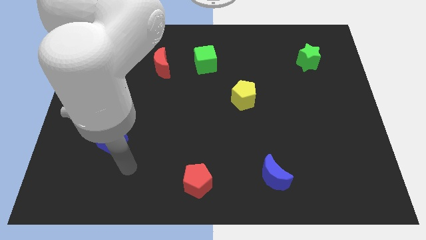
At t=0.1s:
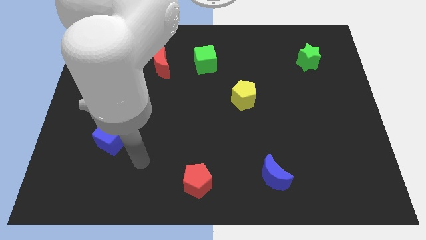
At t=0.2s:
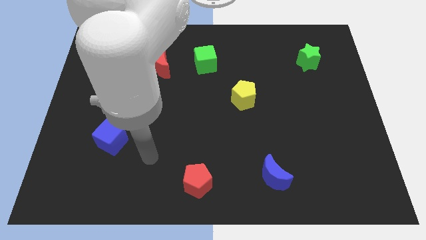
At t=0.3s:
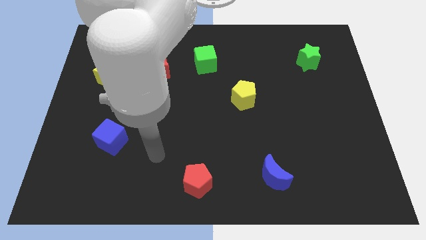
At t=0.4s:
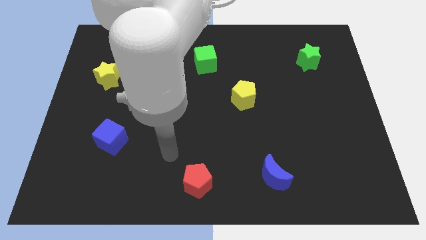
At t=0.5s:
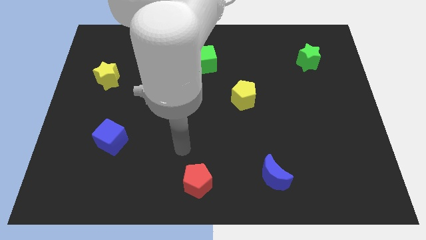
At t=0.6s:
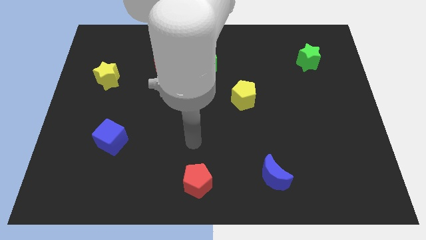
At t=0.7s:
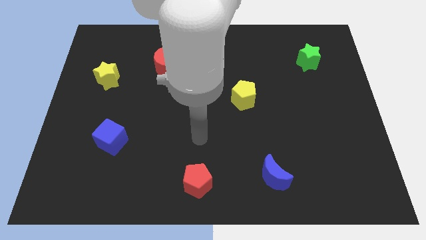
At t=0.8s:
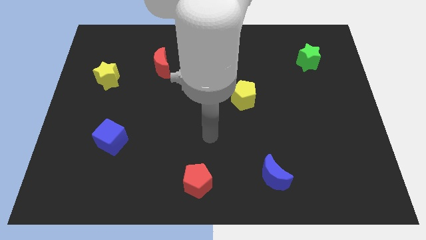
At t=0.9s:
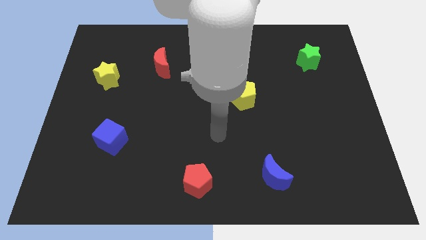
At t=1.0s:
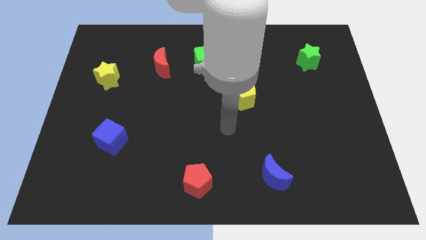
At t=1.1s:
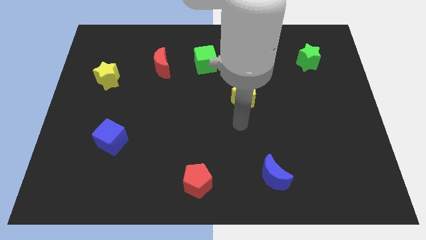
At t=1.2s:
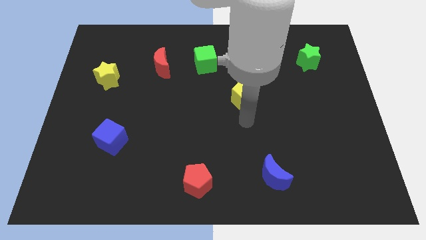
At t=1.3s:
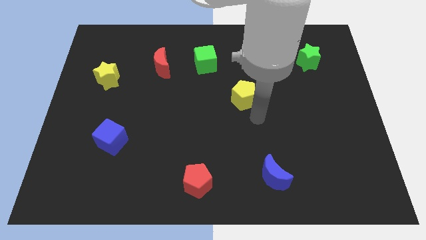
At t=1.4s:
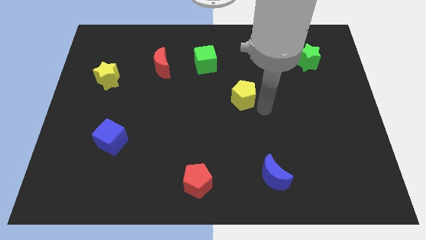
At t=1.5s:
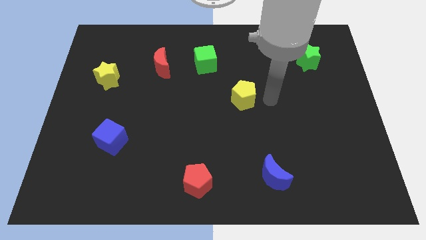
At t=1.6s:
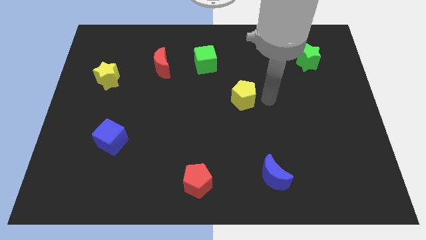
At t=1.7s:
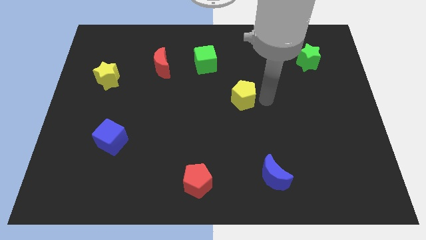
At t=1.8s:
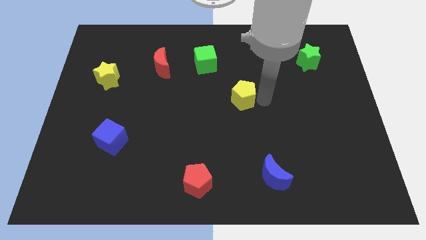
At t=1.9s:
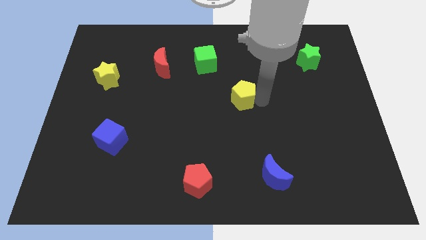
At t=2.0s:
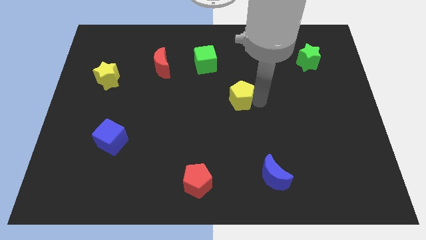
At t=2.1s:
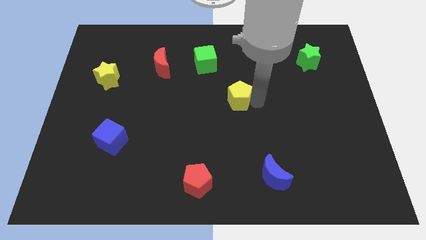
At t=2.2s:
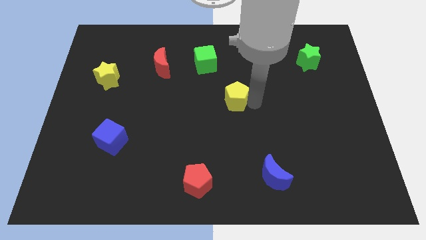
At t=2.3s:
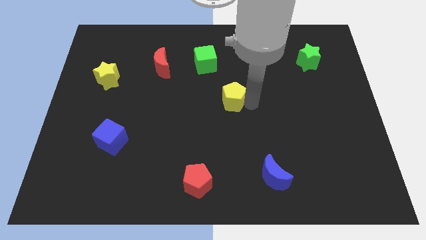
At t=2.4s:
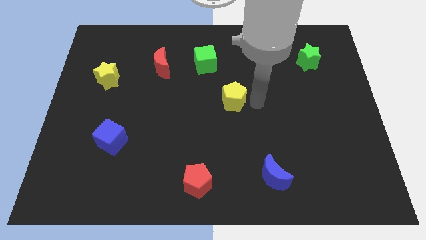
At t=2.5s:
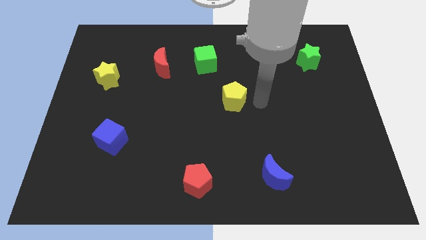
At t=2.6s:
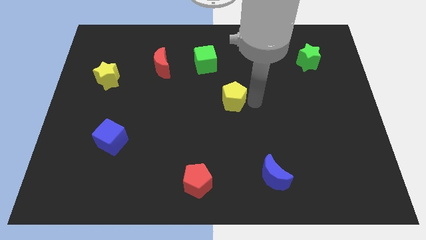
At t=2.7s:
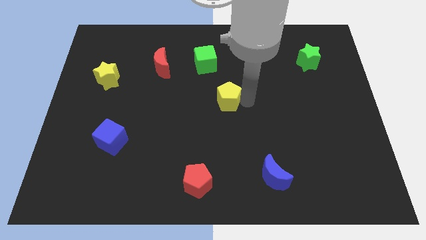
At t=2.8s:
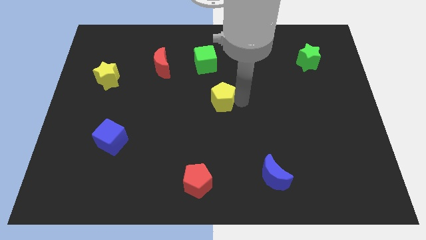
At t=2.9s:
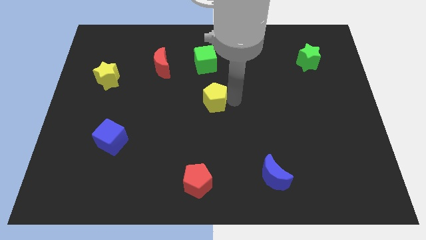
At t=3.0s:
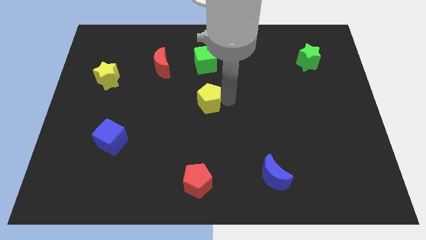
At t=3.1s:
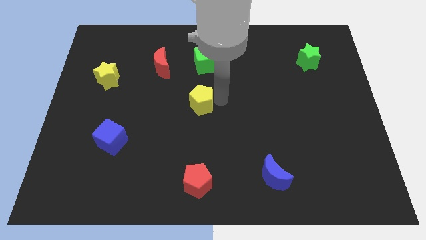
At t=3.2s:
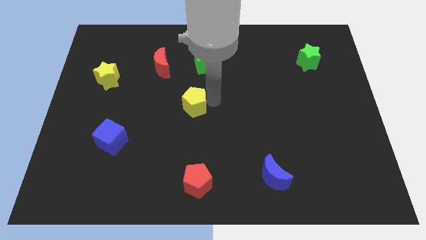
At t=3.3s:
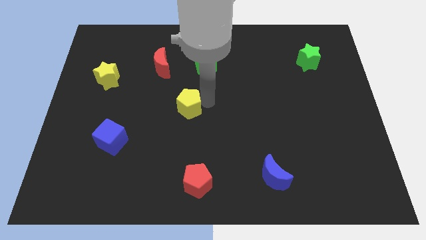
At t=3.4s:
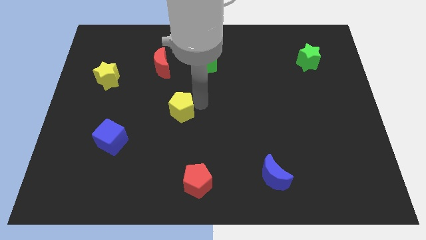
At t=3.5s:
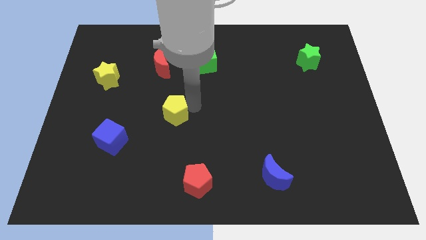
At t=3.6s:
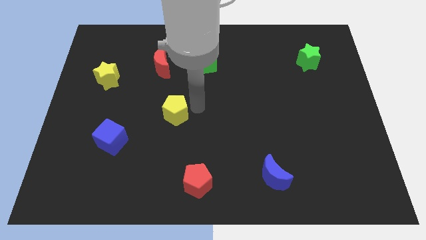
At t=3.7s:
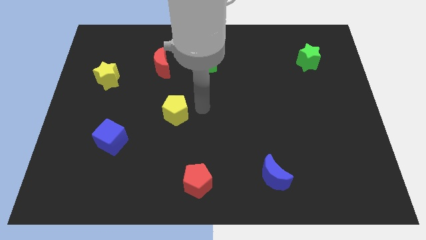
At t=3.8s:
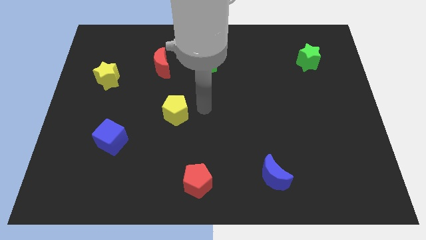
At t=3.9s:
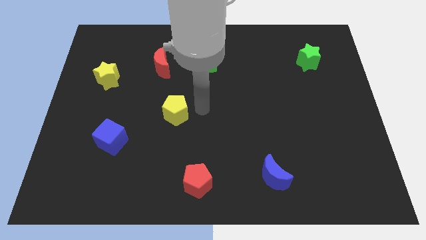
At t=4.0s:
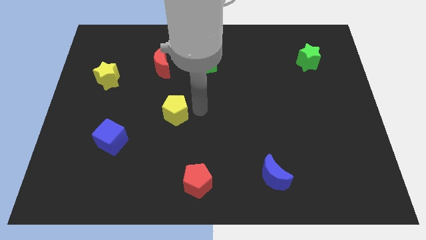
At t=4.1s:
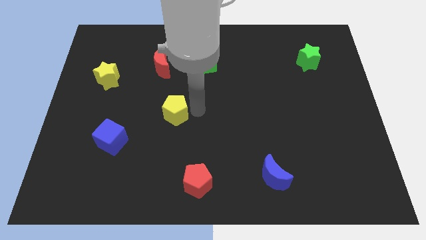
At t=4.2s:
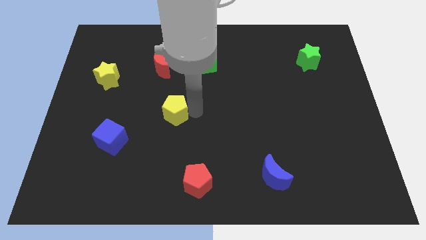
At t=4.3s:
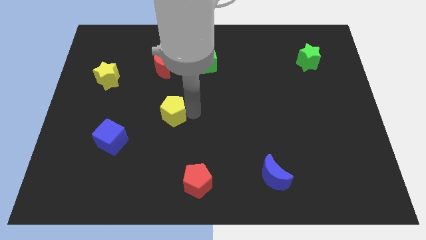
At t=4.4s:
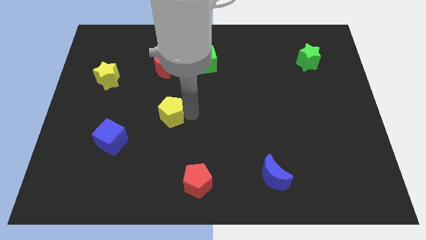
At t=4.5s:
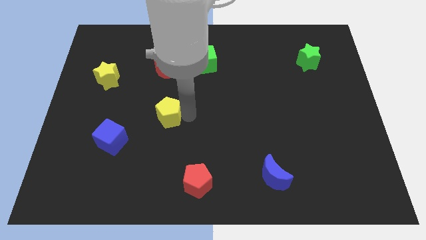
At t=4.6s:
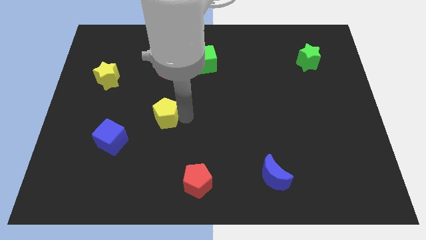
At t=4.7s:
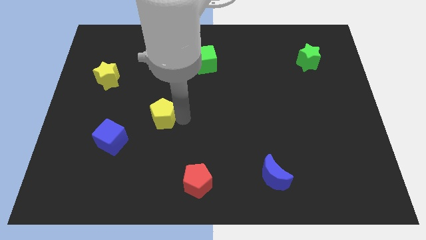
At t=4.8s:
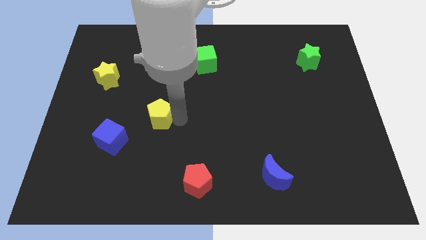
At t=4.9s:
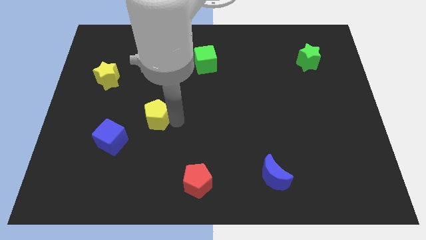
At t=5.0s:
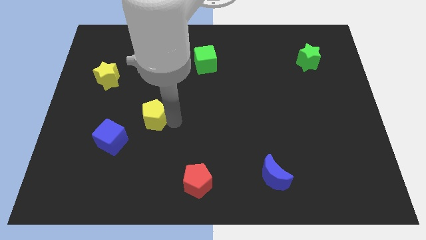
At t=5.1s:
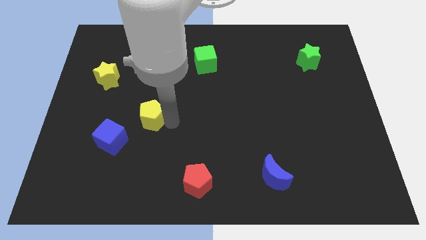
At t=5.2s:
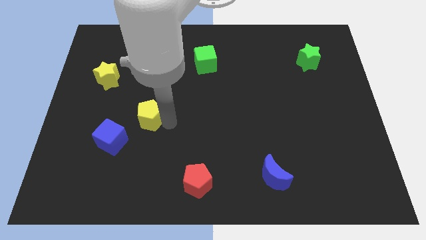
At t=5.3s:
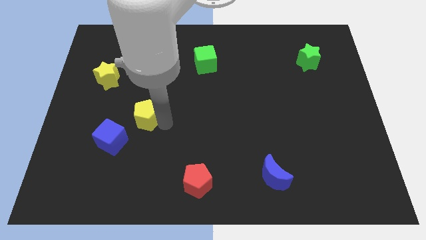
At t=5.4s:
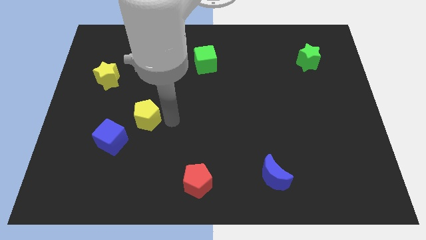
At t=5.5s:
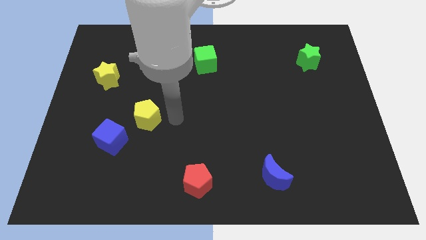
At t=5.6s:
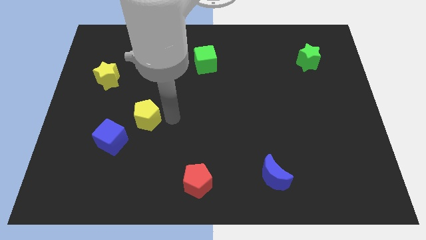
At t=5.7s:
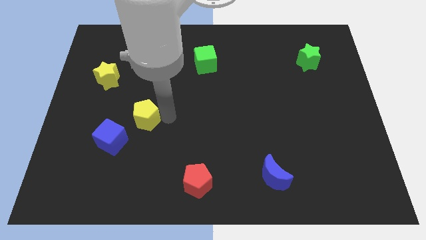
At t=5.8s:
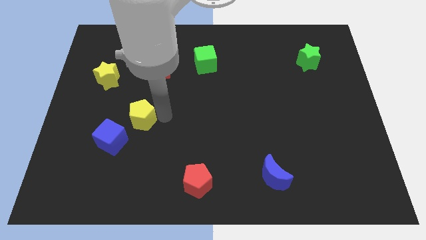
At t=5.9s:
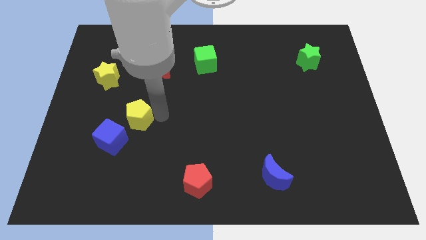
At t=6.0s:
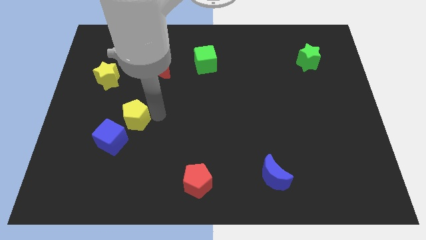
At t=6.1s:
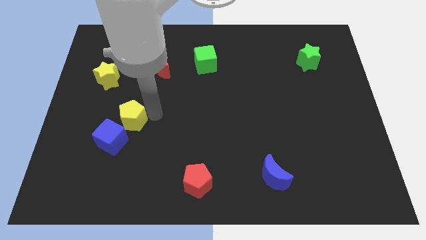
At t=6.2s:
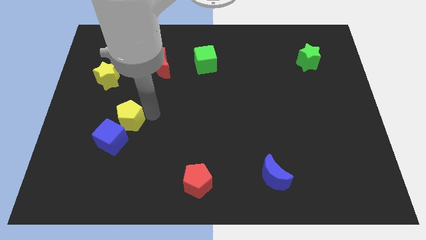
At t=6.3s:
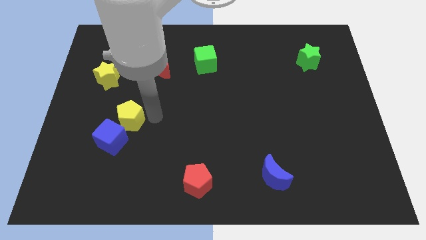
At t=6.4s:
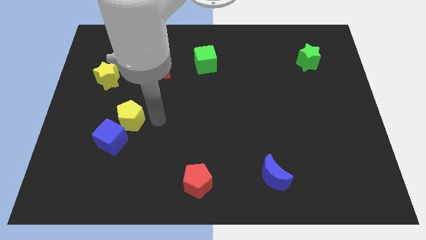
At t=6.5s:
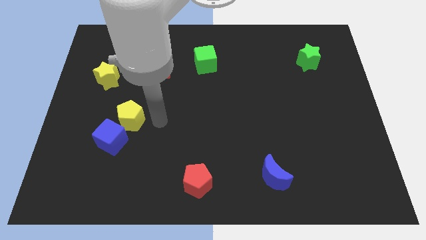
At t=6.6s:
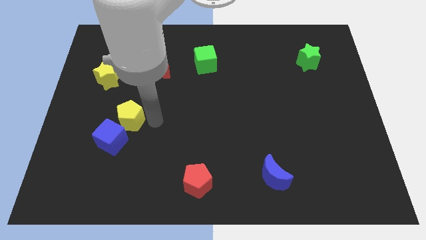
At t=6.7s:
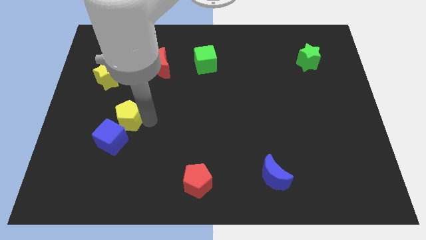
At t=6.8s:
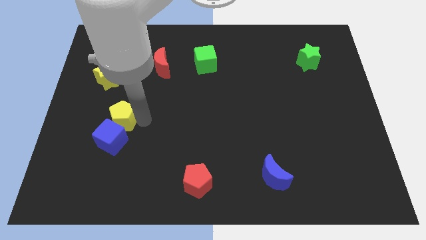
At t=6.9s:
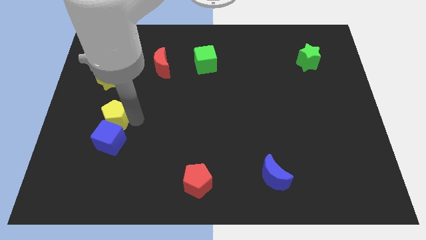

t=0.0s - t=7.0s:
move the yellow pentagon diagonally up and to the left of the blue cube
